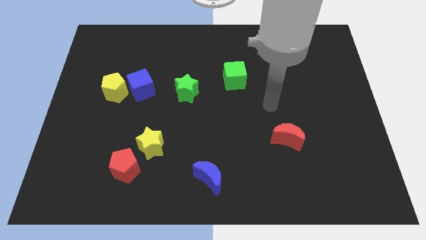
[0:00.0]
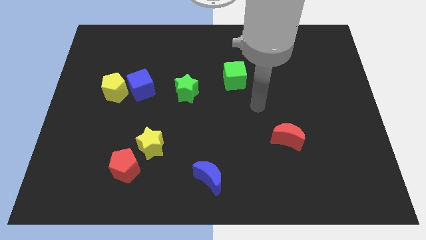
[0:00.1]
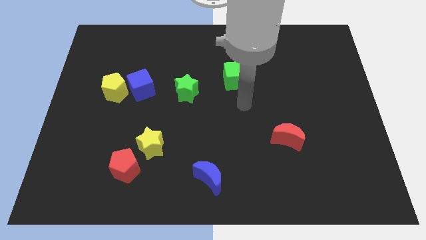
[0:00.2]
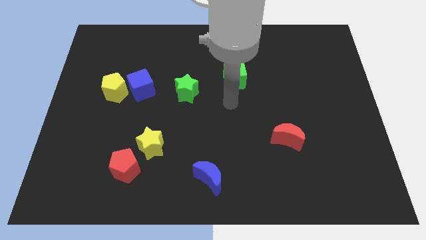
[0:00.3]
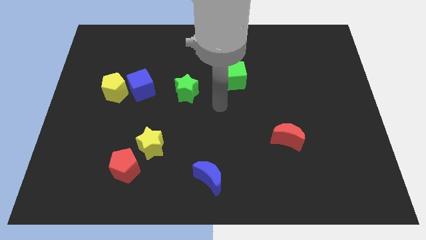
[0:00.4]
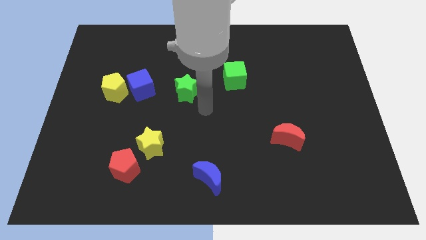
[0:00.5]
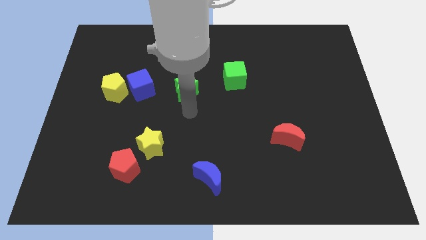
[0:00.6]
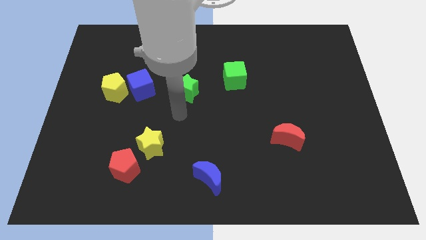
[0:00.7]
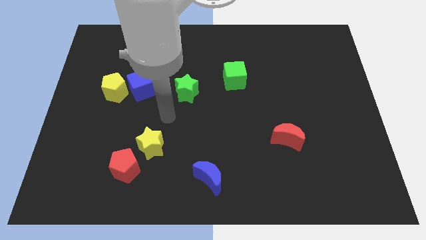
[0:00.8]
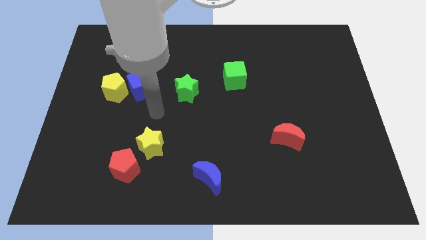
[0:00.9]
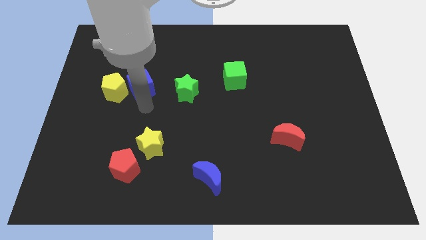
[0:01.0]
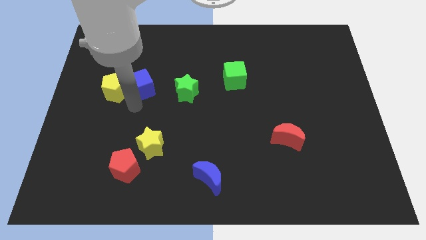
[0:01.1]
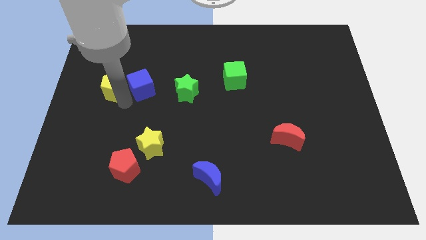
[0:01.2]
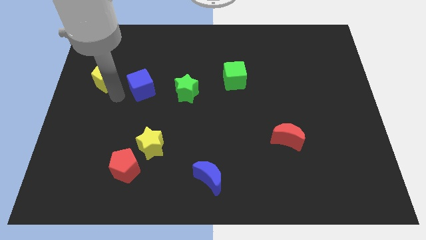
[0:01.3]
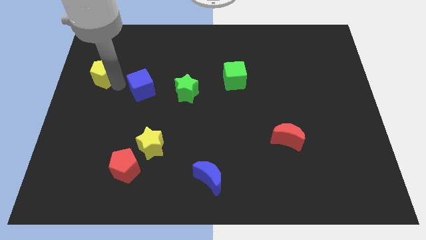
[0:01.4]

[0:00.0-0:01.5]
separate the blue cube from the yellow pentagon

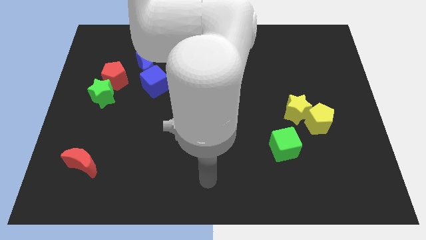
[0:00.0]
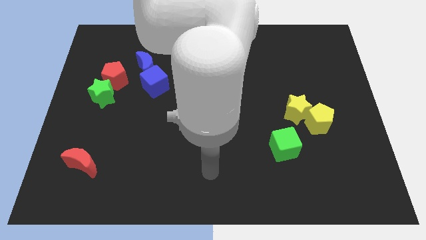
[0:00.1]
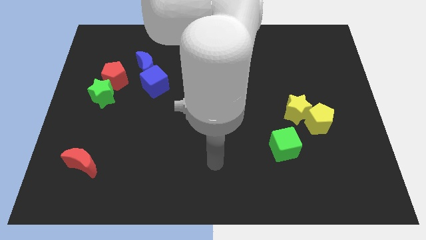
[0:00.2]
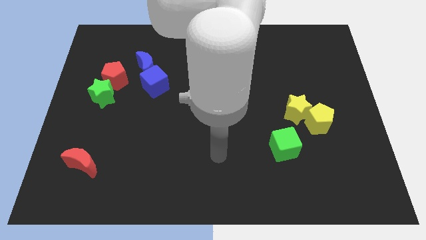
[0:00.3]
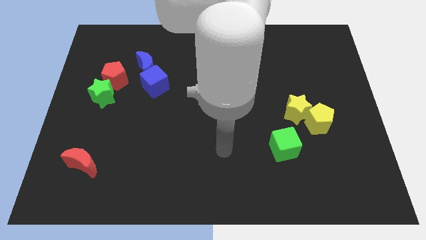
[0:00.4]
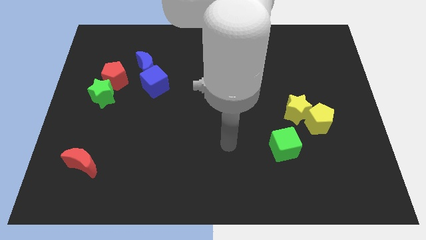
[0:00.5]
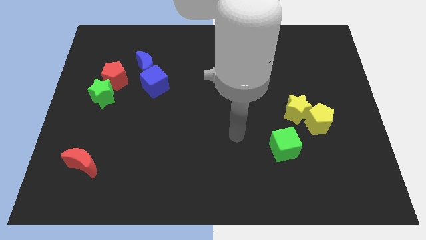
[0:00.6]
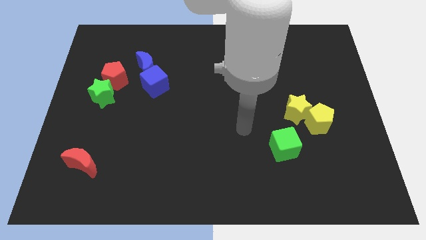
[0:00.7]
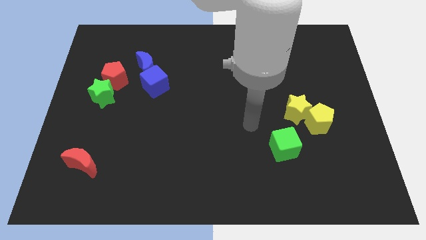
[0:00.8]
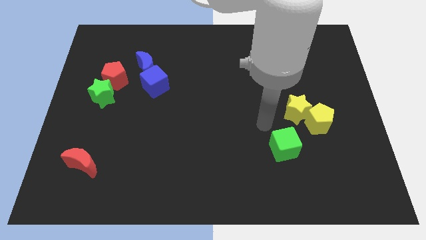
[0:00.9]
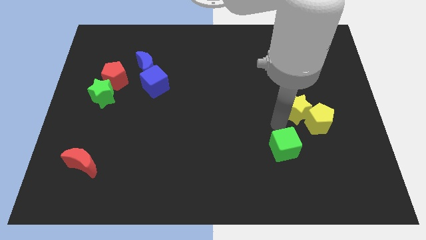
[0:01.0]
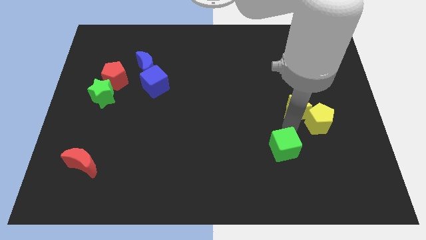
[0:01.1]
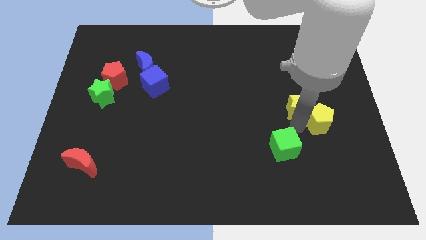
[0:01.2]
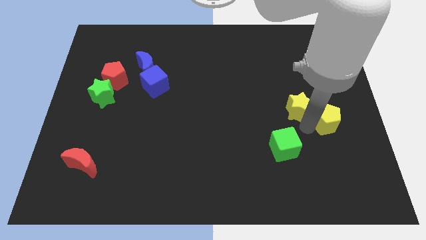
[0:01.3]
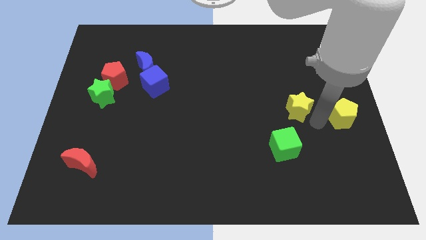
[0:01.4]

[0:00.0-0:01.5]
separate the yellow star from the yellow pentagon

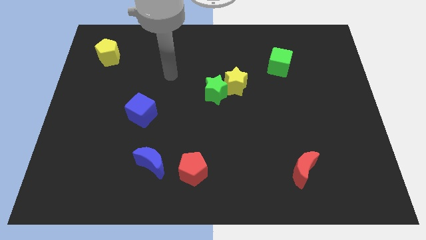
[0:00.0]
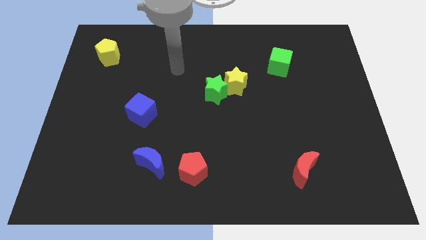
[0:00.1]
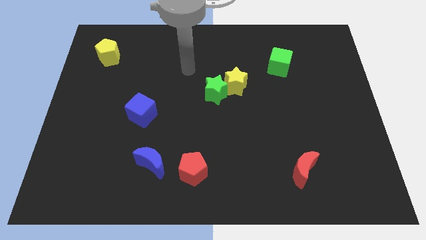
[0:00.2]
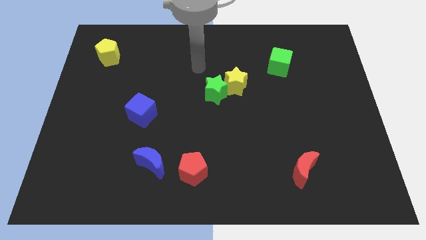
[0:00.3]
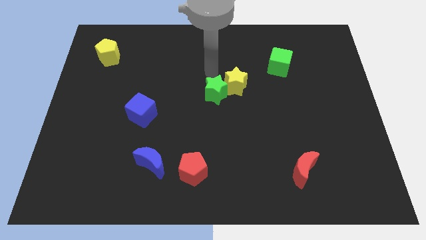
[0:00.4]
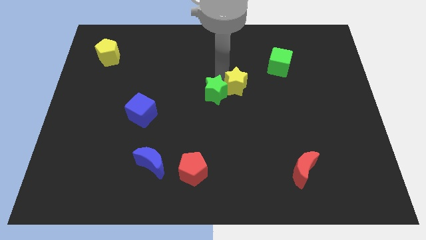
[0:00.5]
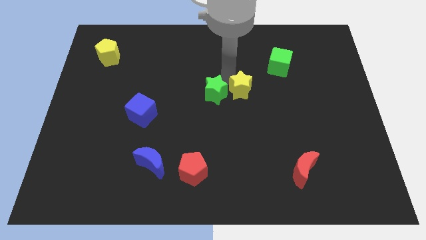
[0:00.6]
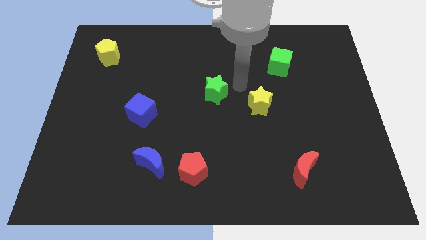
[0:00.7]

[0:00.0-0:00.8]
separate the green star from the yellow star

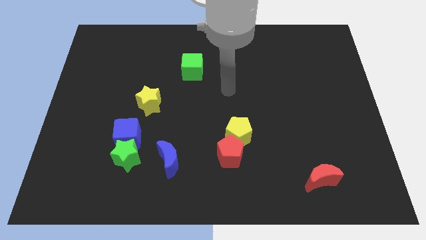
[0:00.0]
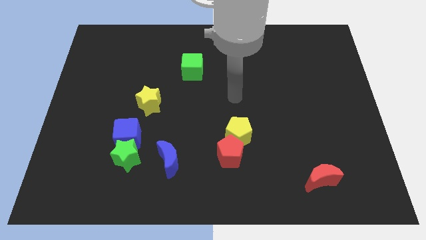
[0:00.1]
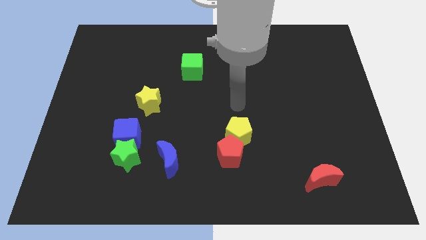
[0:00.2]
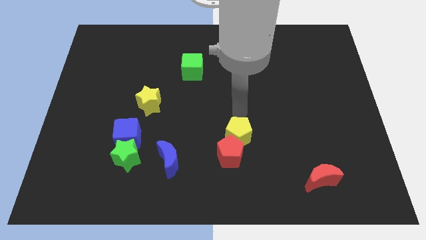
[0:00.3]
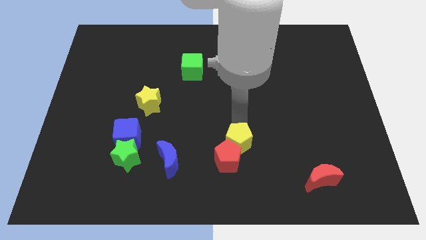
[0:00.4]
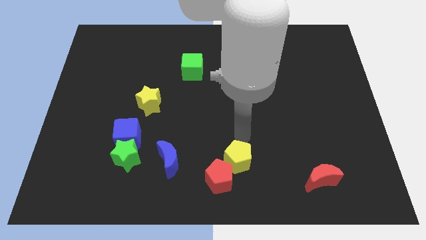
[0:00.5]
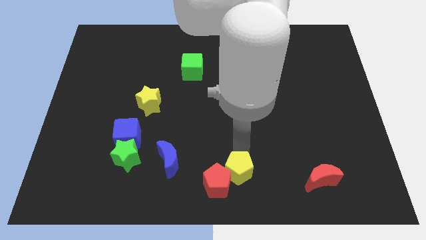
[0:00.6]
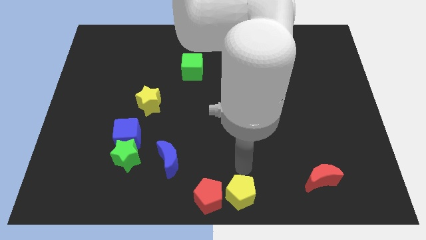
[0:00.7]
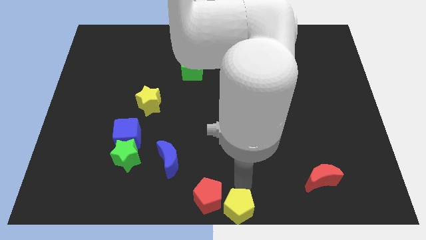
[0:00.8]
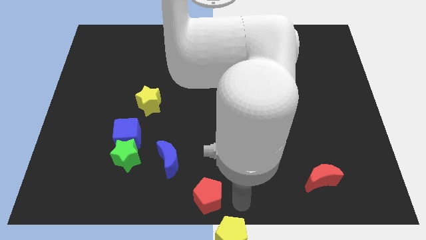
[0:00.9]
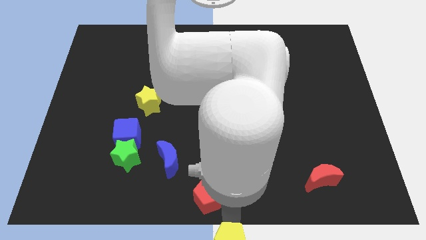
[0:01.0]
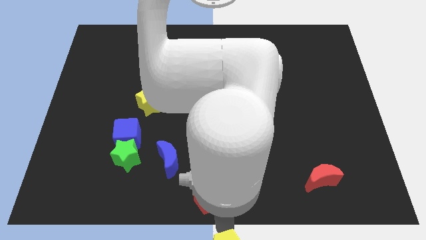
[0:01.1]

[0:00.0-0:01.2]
move the red pentagon away from the yellow pentagon

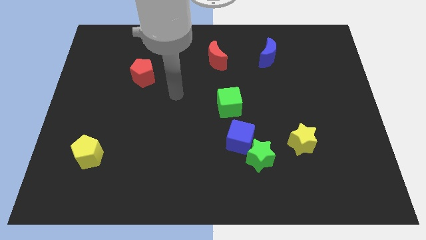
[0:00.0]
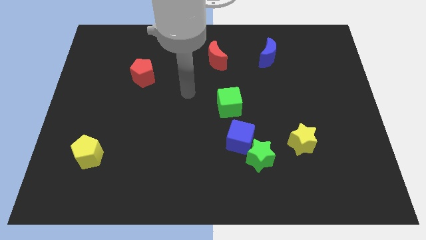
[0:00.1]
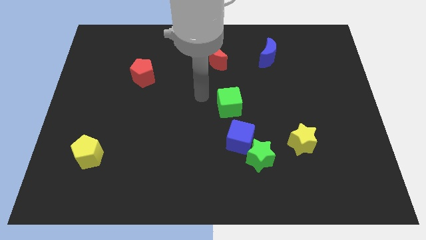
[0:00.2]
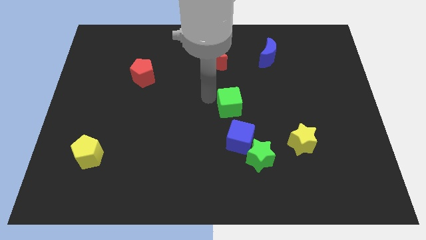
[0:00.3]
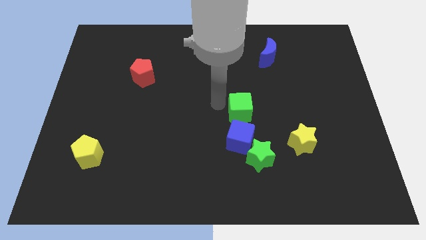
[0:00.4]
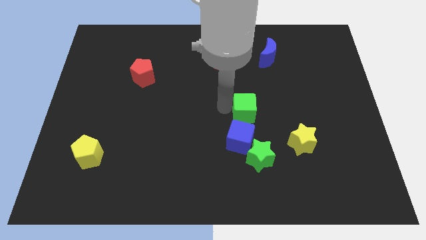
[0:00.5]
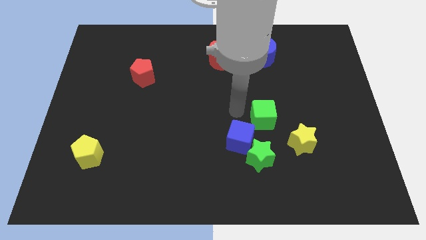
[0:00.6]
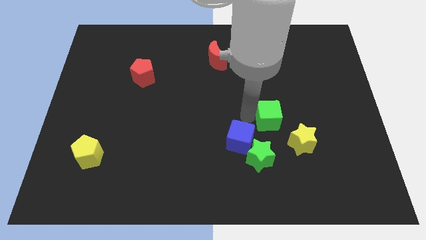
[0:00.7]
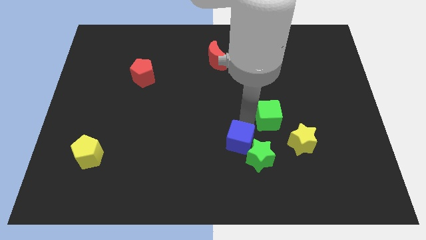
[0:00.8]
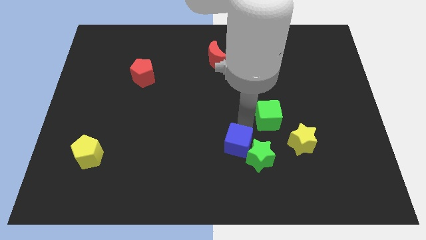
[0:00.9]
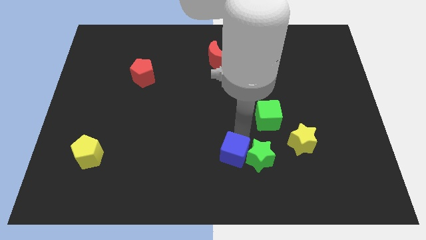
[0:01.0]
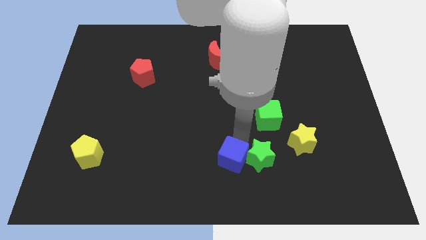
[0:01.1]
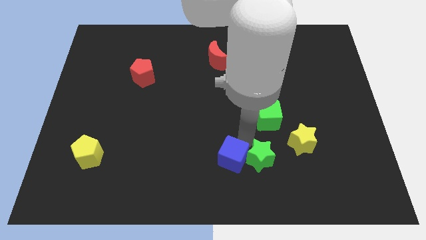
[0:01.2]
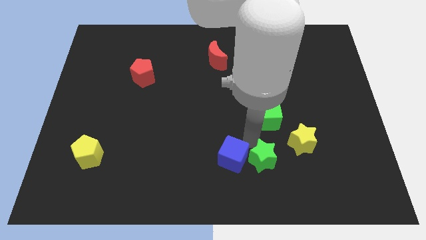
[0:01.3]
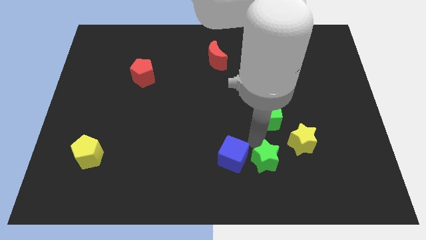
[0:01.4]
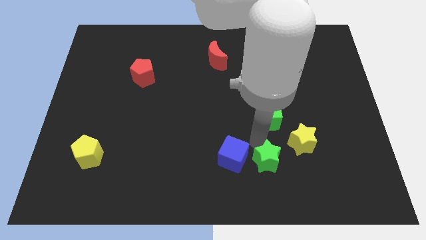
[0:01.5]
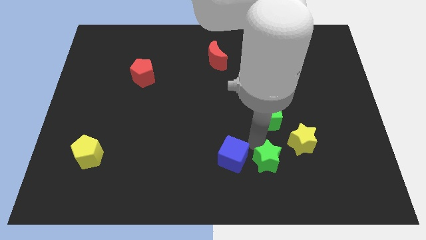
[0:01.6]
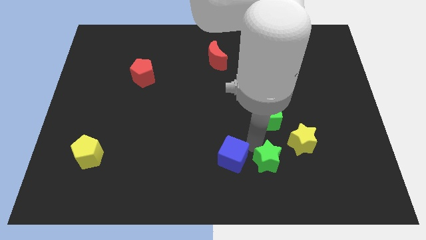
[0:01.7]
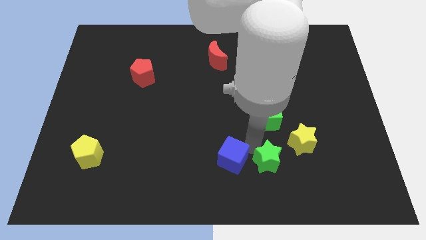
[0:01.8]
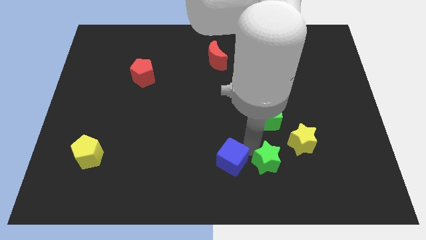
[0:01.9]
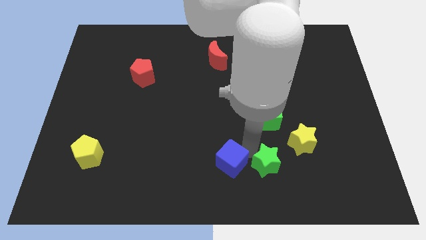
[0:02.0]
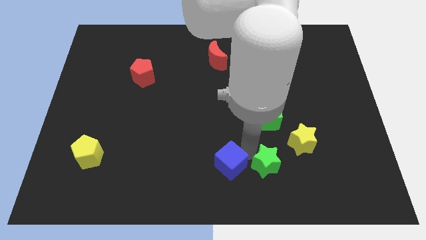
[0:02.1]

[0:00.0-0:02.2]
pull the blue cube apart from the green star and green cube

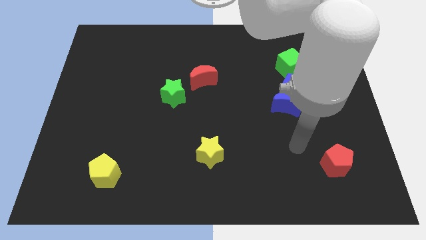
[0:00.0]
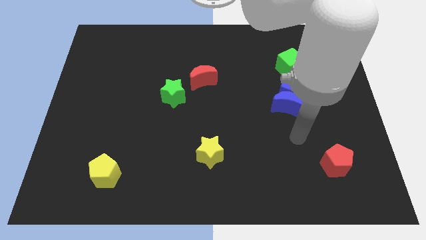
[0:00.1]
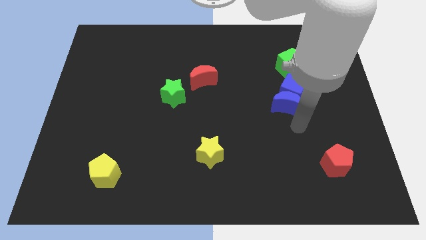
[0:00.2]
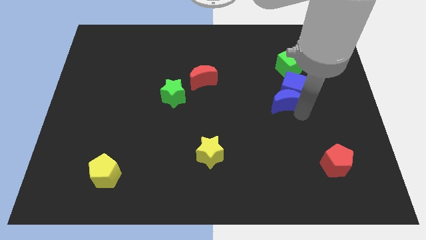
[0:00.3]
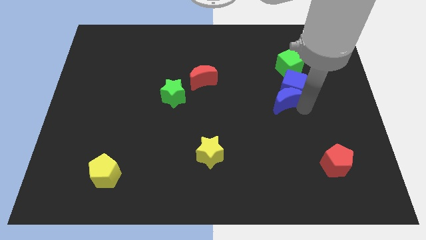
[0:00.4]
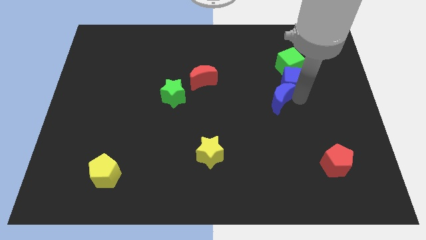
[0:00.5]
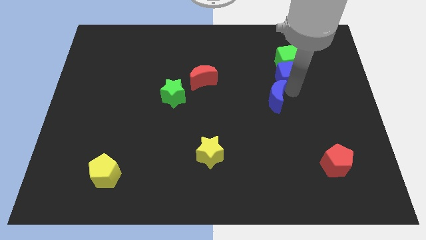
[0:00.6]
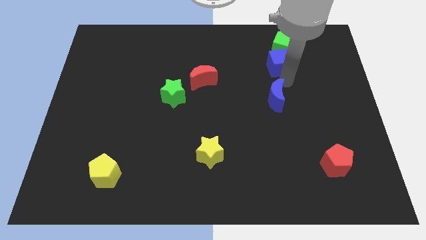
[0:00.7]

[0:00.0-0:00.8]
pull the blue moon apart from the blue cube

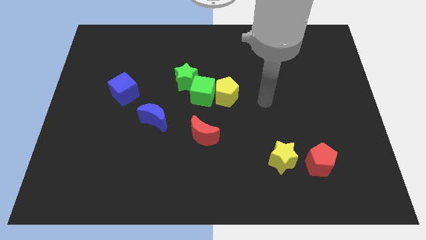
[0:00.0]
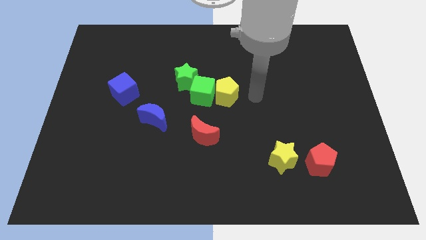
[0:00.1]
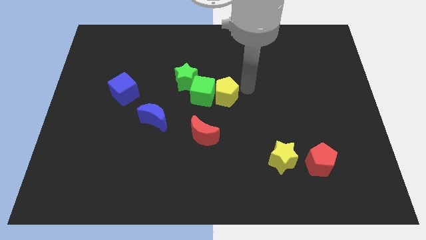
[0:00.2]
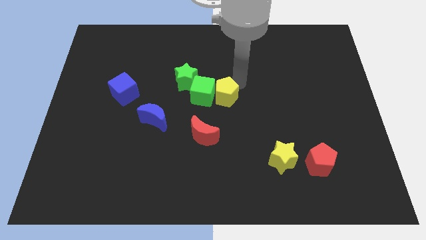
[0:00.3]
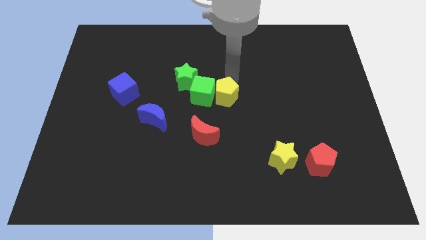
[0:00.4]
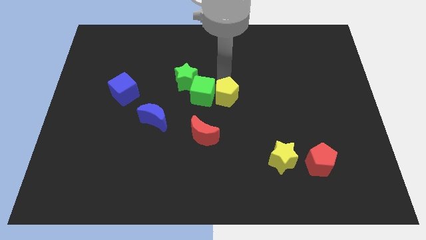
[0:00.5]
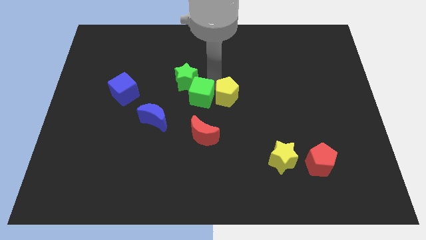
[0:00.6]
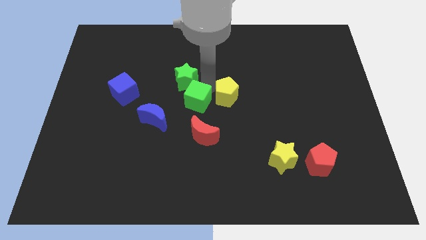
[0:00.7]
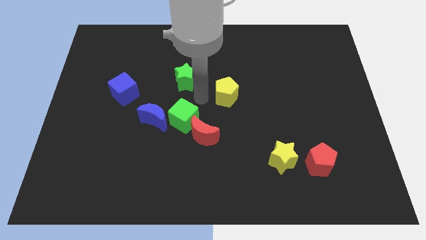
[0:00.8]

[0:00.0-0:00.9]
separate the yellow pentagon from the green cube

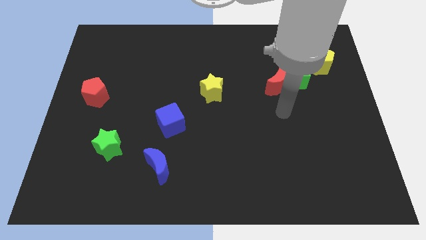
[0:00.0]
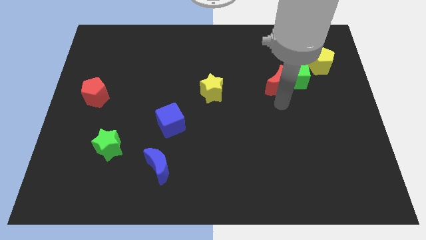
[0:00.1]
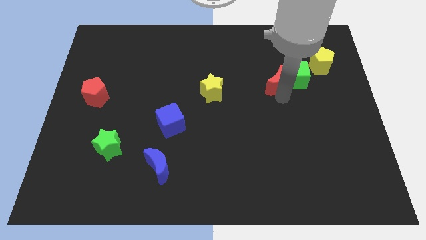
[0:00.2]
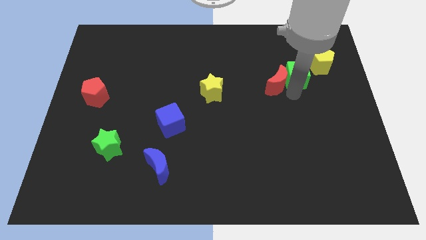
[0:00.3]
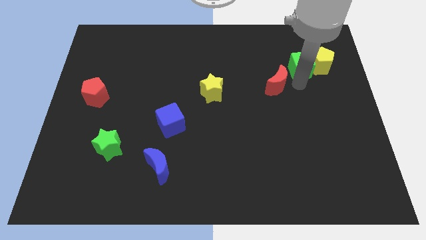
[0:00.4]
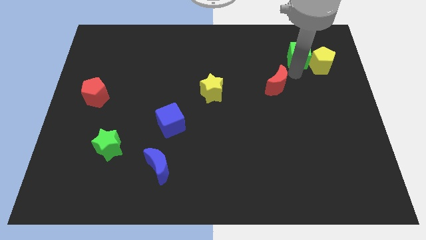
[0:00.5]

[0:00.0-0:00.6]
move the red moon away from the green cube
